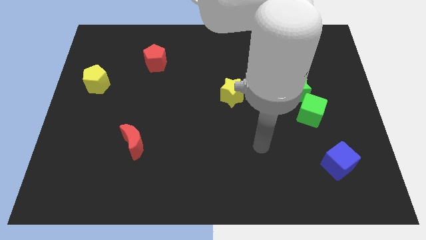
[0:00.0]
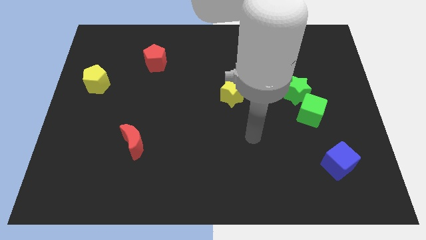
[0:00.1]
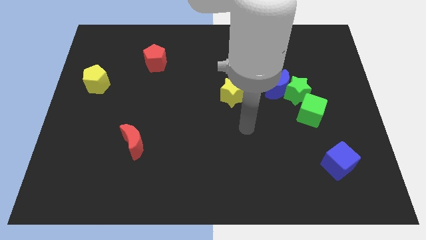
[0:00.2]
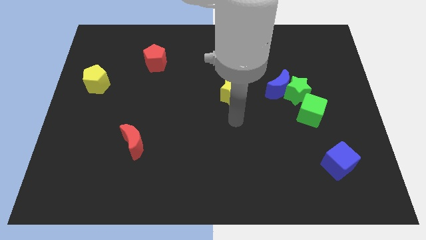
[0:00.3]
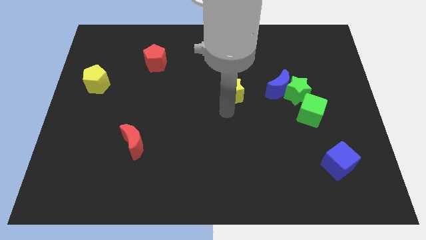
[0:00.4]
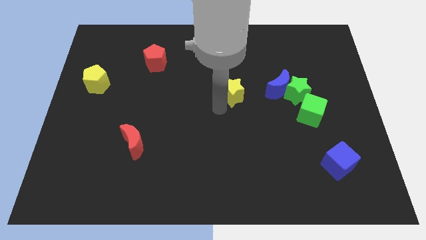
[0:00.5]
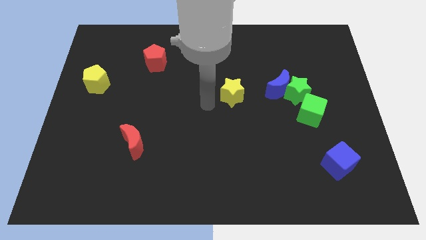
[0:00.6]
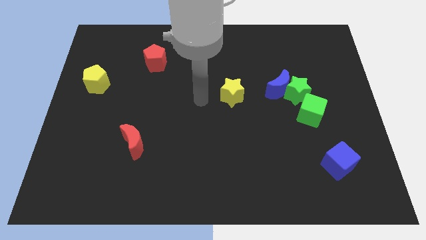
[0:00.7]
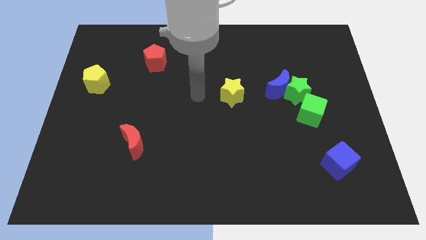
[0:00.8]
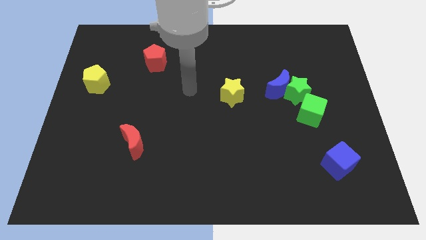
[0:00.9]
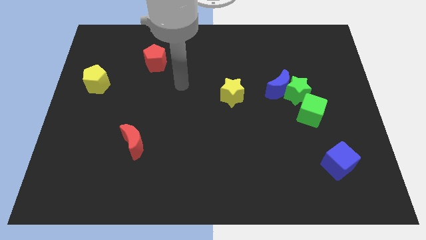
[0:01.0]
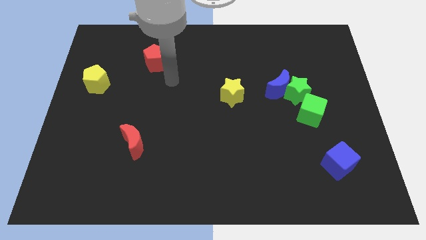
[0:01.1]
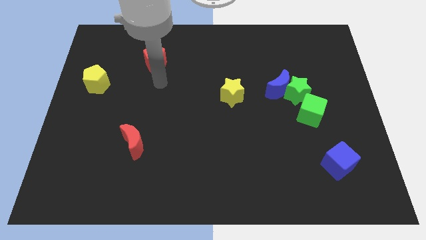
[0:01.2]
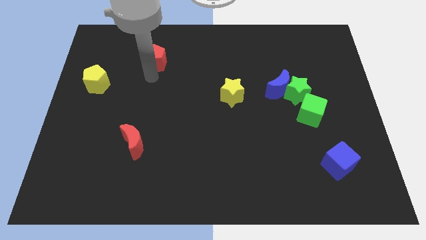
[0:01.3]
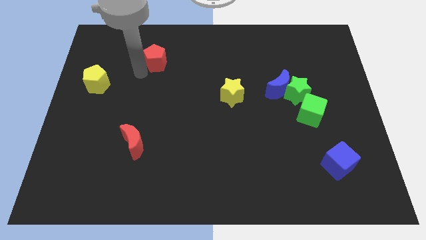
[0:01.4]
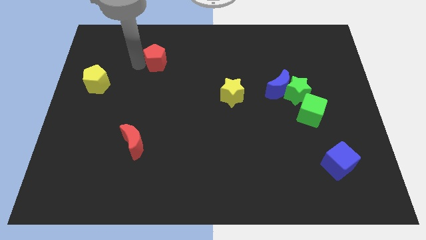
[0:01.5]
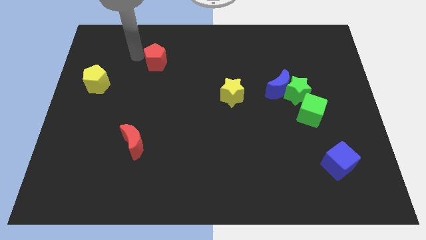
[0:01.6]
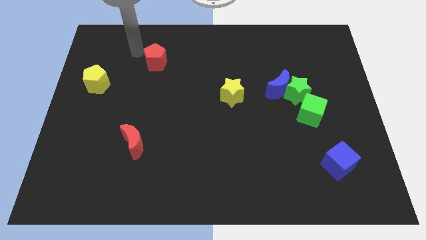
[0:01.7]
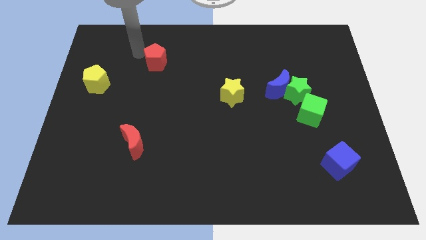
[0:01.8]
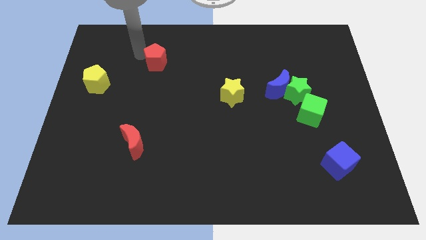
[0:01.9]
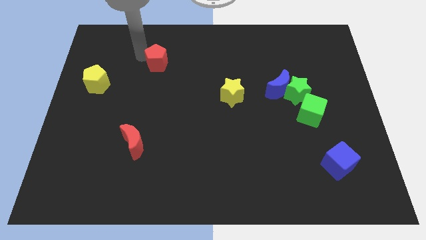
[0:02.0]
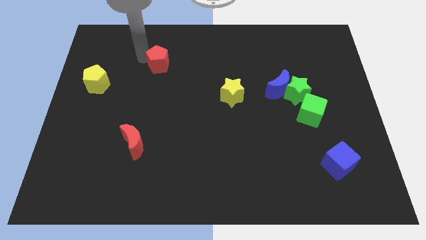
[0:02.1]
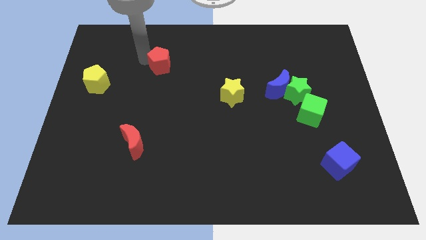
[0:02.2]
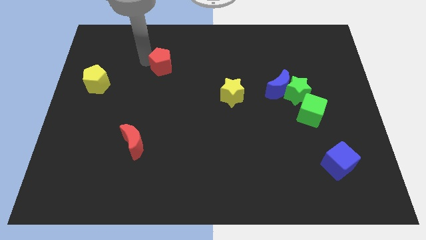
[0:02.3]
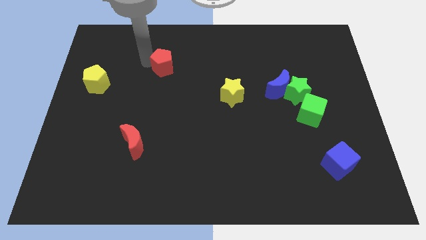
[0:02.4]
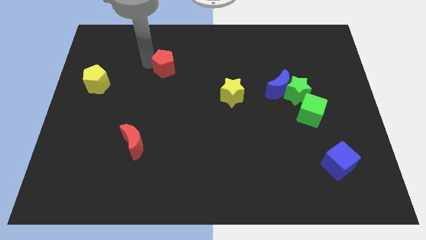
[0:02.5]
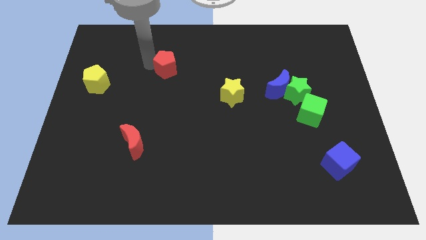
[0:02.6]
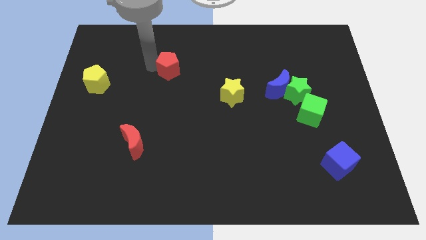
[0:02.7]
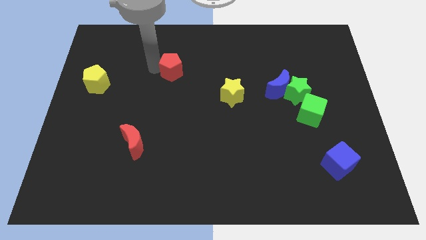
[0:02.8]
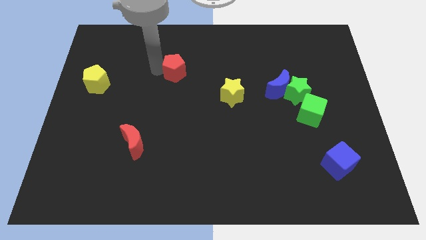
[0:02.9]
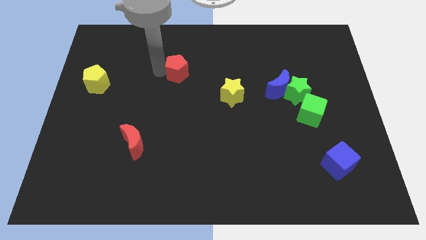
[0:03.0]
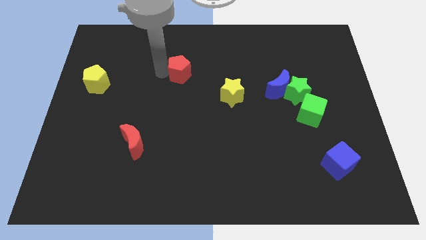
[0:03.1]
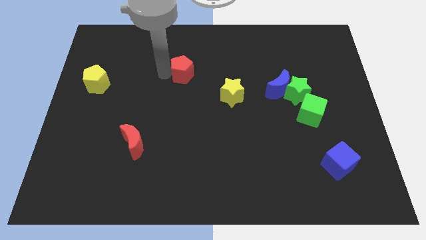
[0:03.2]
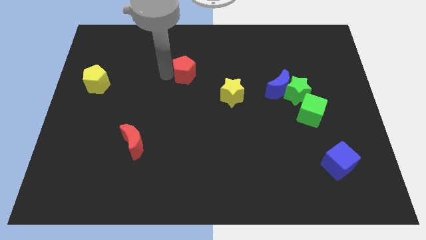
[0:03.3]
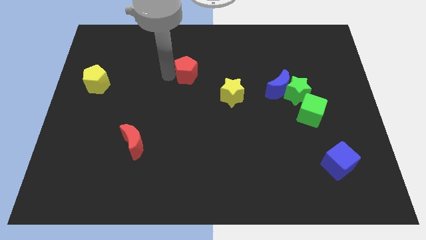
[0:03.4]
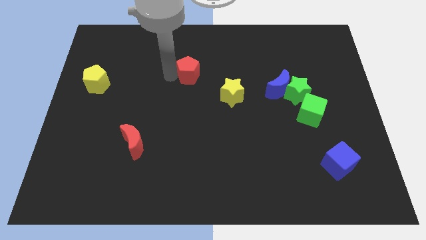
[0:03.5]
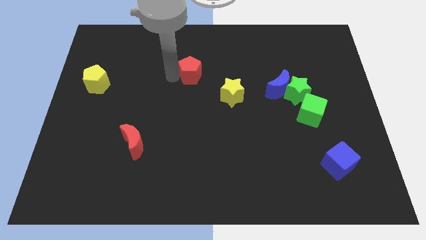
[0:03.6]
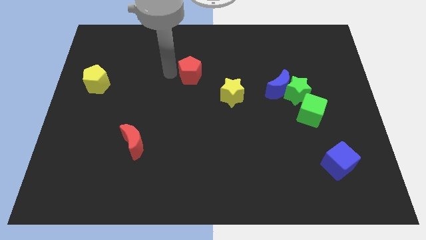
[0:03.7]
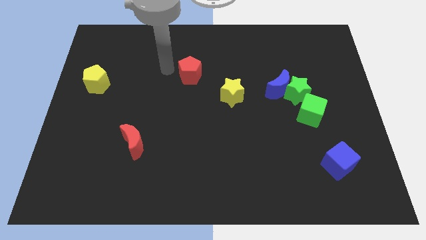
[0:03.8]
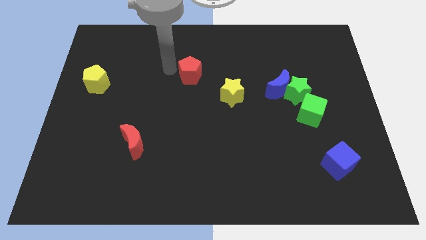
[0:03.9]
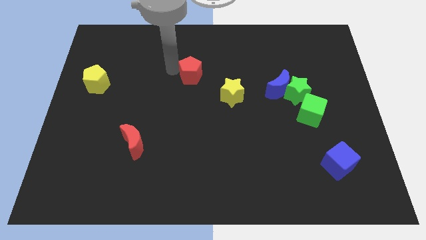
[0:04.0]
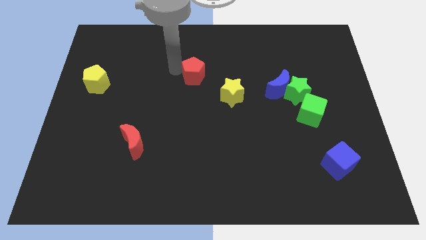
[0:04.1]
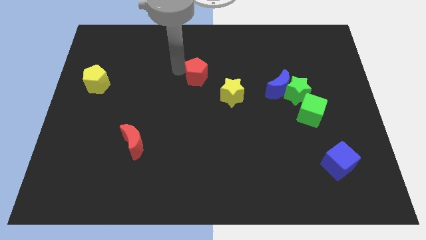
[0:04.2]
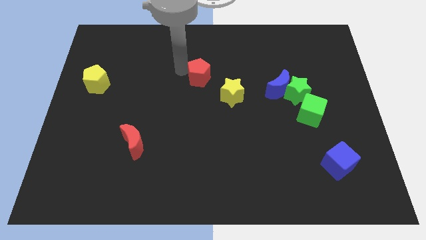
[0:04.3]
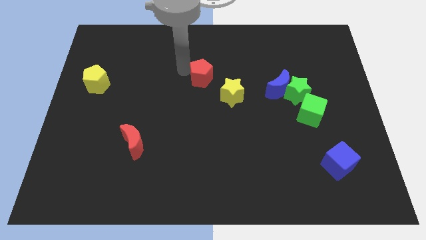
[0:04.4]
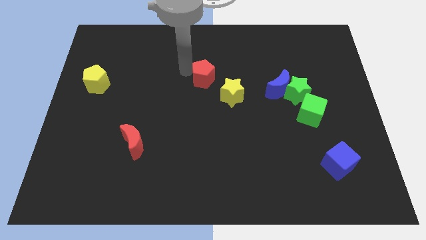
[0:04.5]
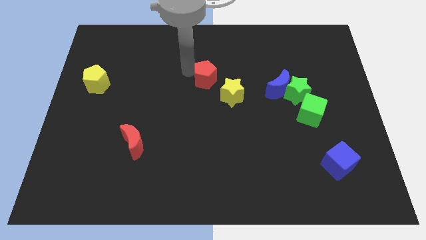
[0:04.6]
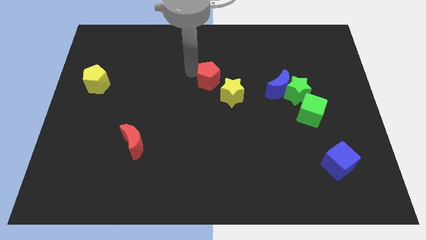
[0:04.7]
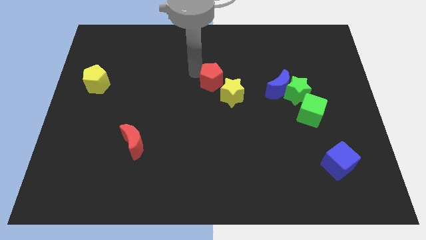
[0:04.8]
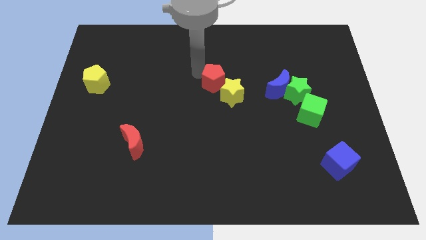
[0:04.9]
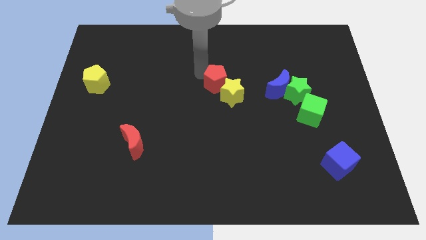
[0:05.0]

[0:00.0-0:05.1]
slide the red pentagon close to the yellow star

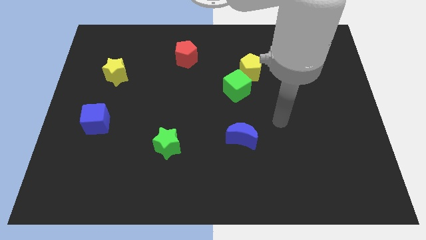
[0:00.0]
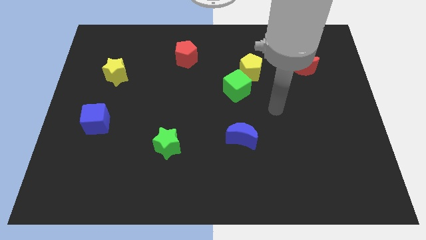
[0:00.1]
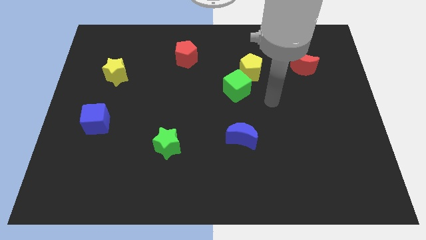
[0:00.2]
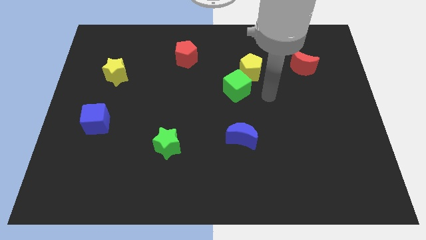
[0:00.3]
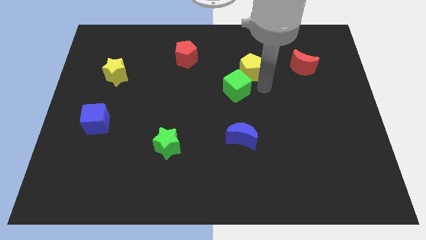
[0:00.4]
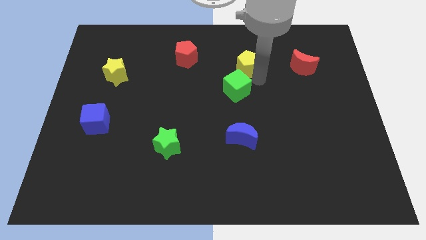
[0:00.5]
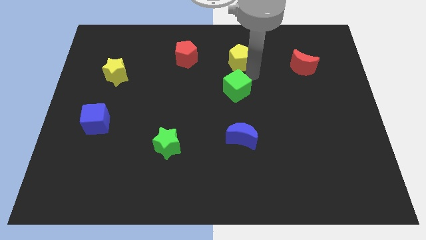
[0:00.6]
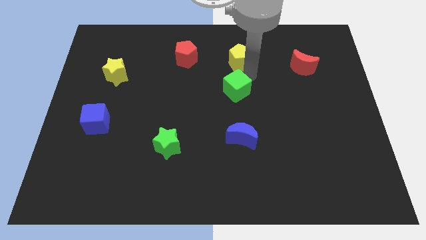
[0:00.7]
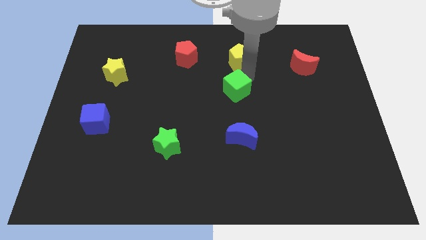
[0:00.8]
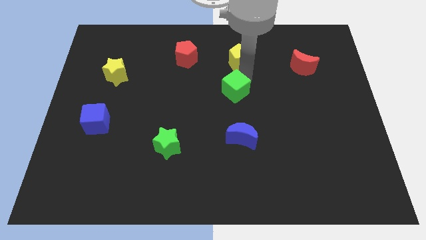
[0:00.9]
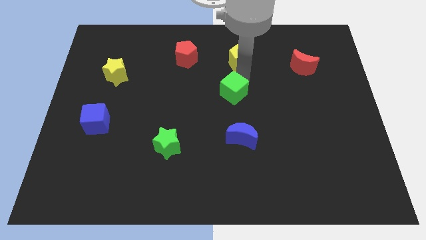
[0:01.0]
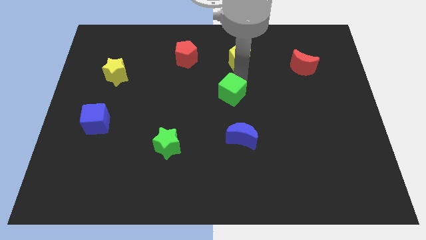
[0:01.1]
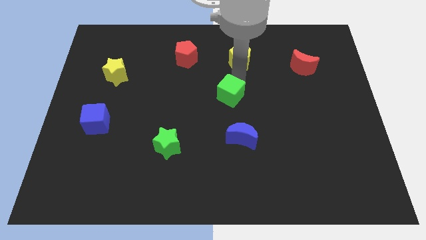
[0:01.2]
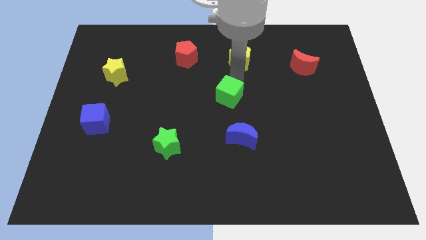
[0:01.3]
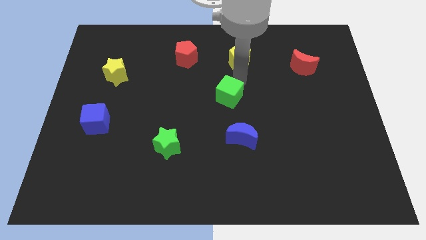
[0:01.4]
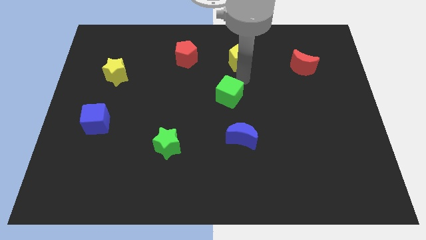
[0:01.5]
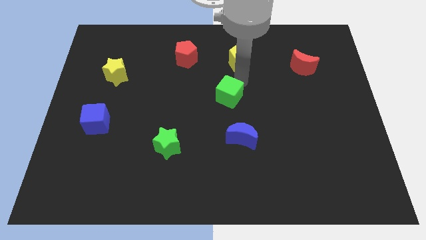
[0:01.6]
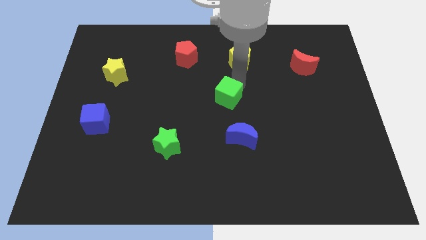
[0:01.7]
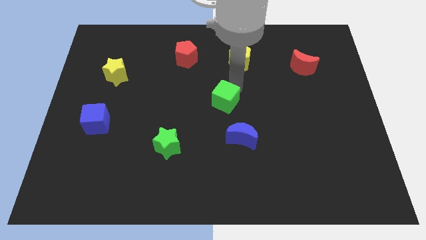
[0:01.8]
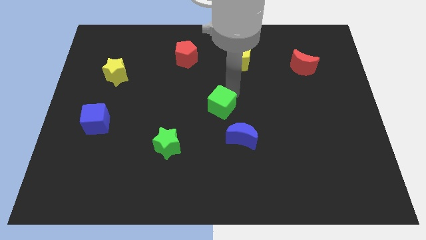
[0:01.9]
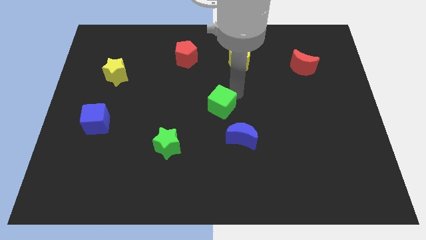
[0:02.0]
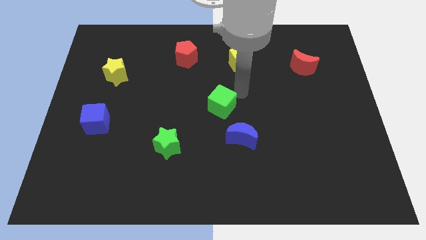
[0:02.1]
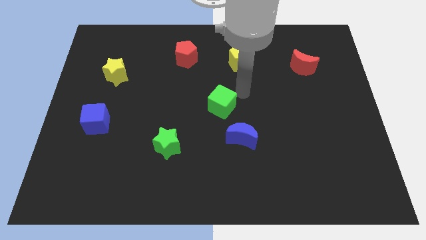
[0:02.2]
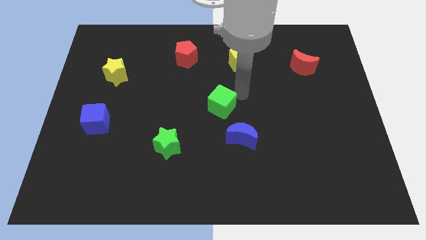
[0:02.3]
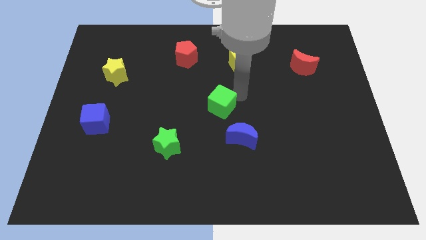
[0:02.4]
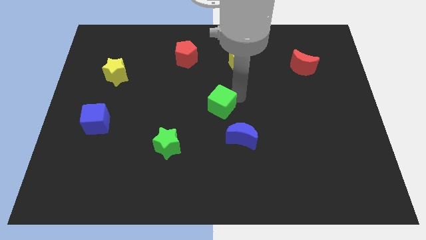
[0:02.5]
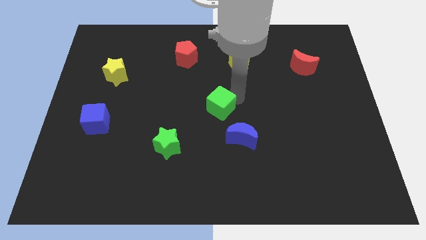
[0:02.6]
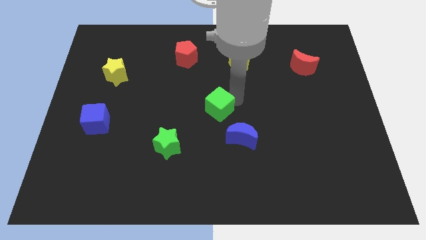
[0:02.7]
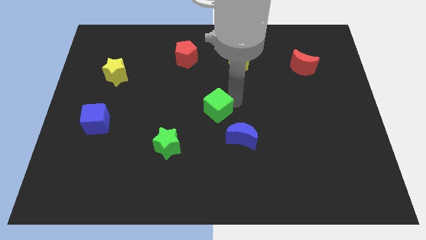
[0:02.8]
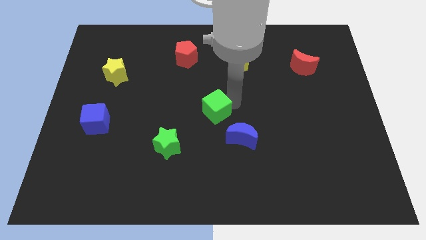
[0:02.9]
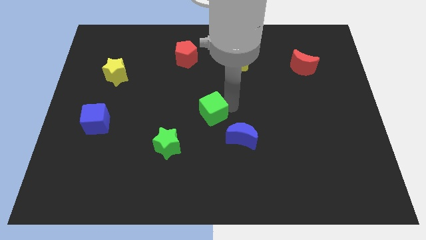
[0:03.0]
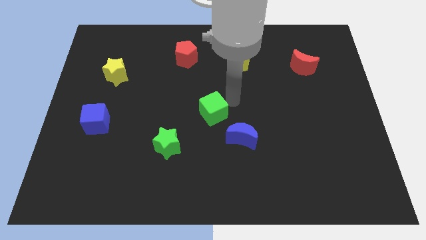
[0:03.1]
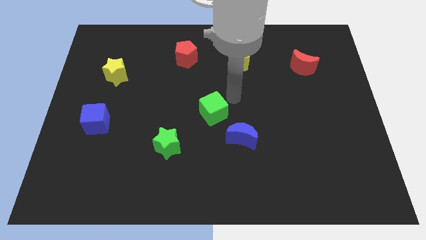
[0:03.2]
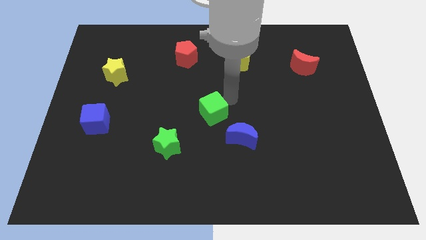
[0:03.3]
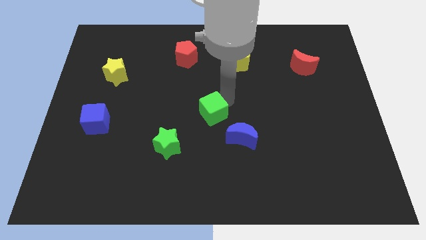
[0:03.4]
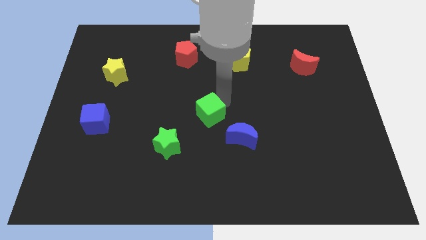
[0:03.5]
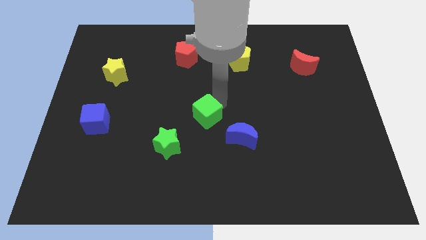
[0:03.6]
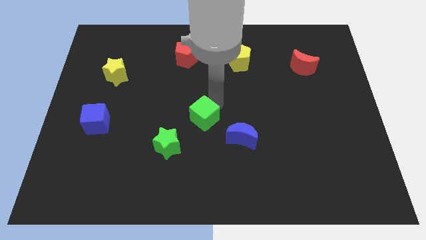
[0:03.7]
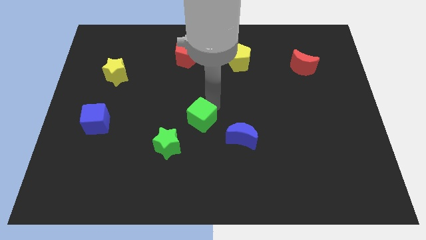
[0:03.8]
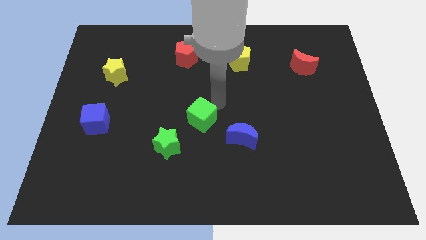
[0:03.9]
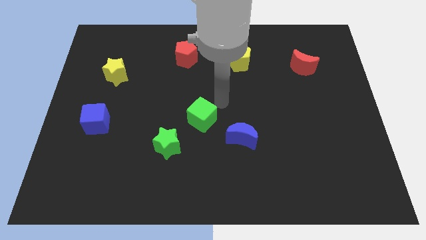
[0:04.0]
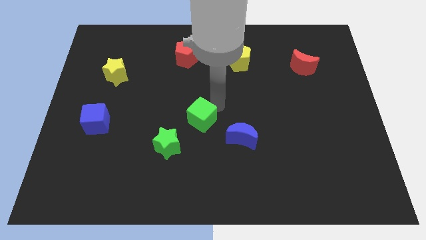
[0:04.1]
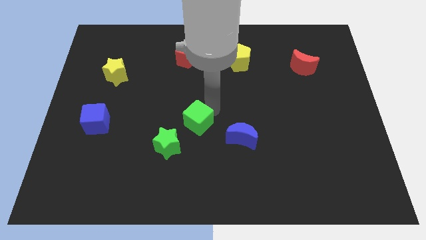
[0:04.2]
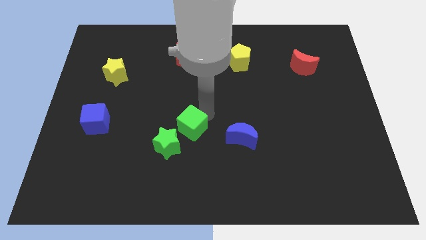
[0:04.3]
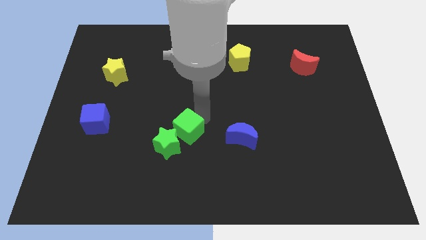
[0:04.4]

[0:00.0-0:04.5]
put the green cube next to the green star
